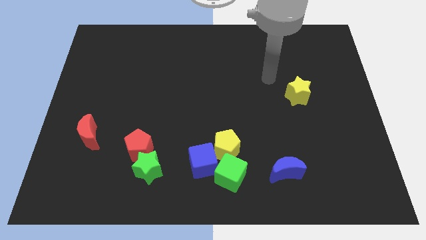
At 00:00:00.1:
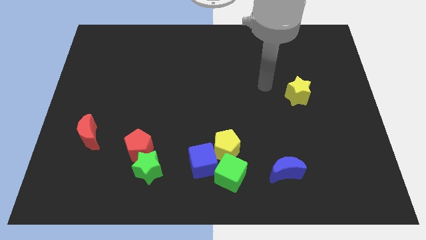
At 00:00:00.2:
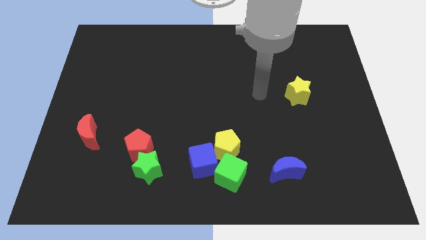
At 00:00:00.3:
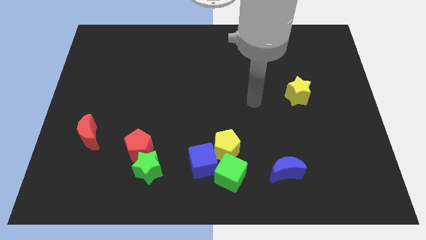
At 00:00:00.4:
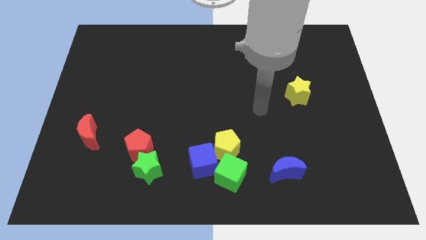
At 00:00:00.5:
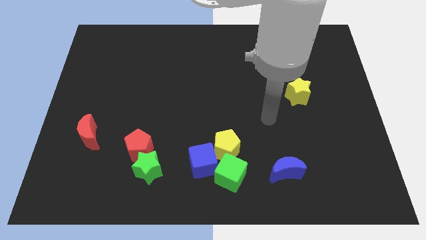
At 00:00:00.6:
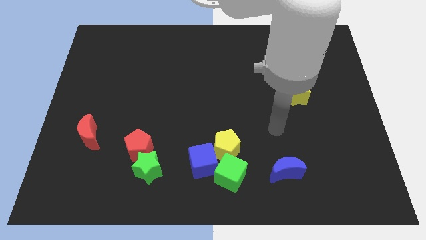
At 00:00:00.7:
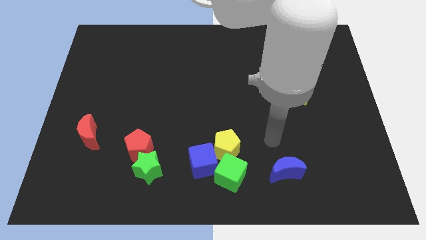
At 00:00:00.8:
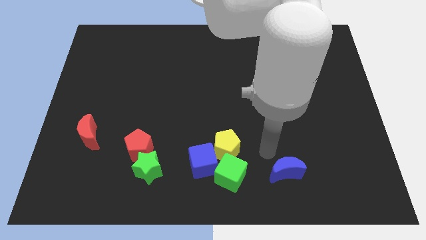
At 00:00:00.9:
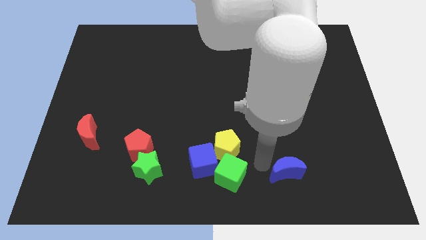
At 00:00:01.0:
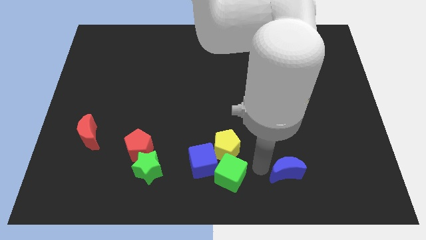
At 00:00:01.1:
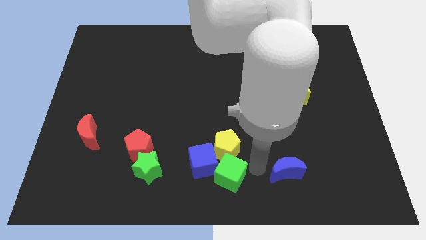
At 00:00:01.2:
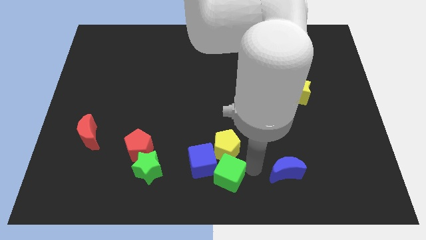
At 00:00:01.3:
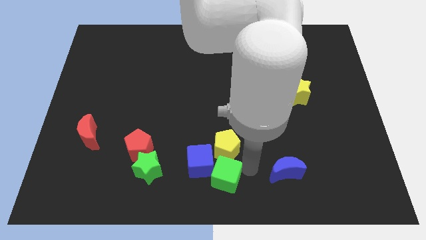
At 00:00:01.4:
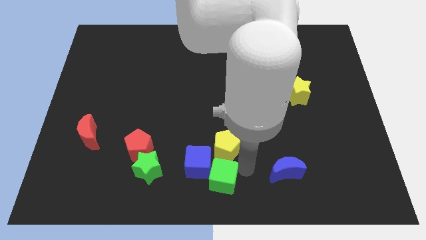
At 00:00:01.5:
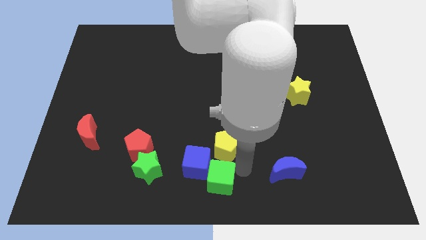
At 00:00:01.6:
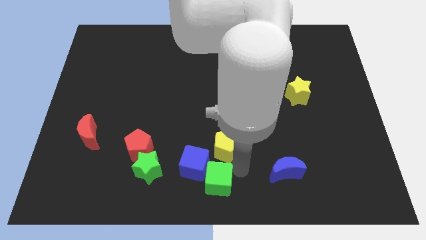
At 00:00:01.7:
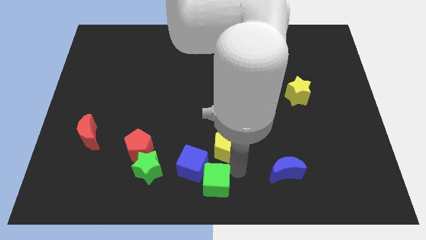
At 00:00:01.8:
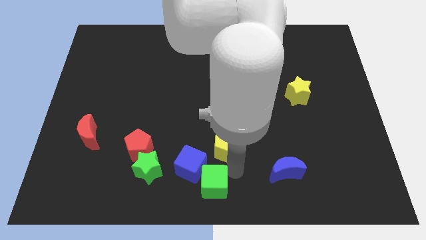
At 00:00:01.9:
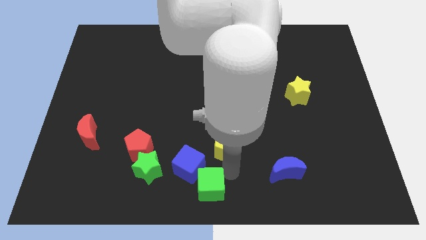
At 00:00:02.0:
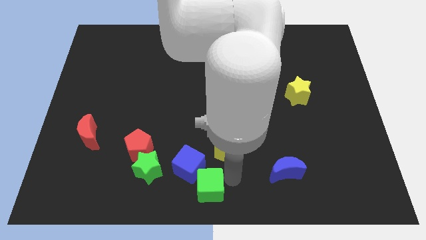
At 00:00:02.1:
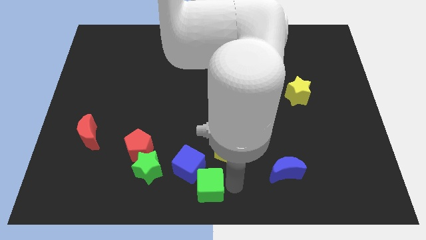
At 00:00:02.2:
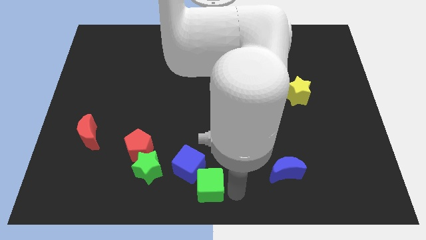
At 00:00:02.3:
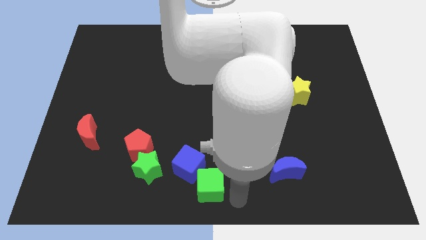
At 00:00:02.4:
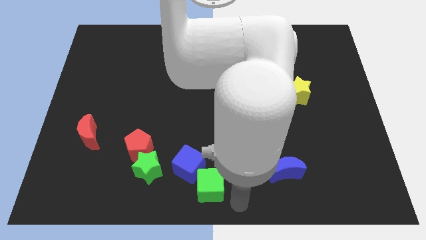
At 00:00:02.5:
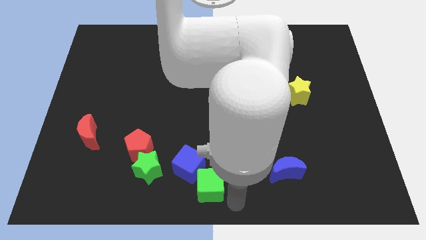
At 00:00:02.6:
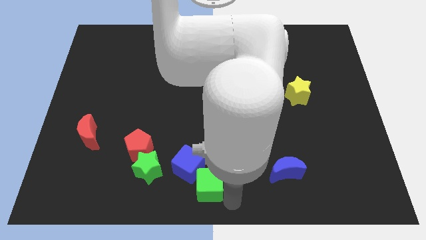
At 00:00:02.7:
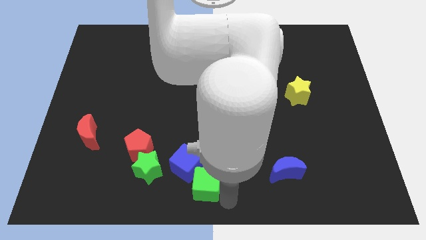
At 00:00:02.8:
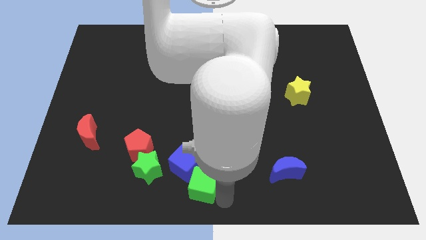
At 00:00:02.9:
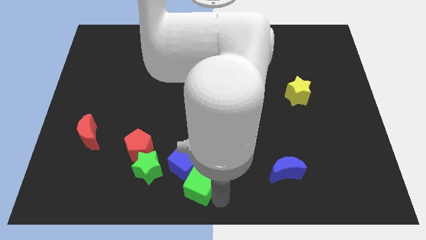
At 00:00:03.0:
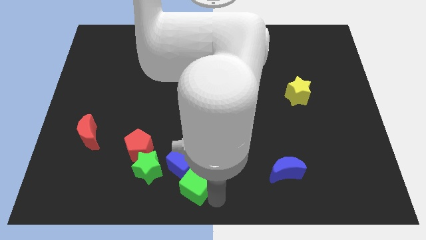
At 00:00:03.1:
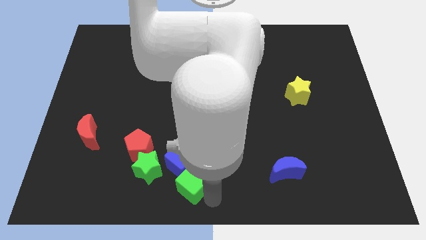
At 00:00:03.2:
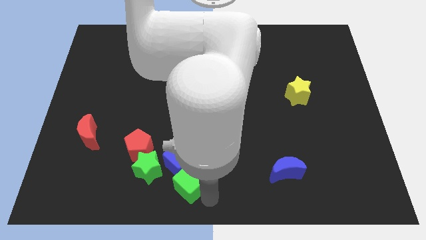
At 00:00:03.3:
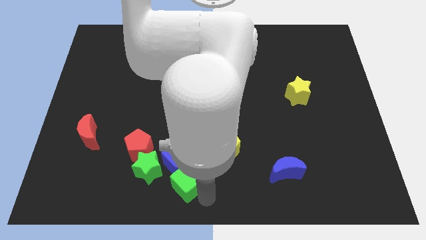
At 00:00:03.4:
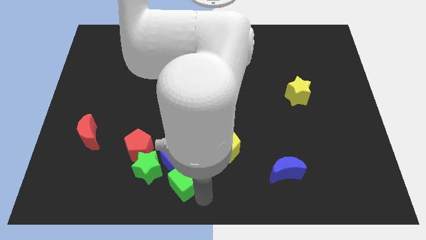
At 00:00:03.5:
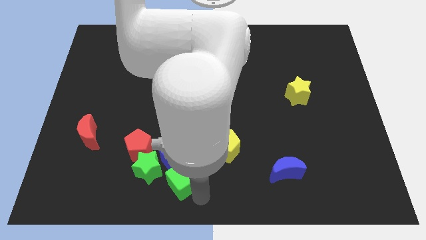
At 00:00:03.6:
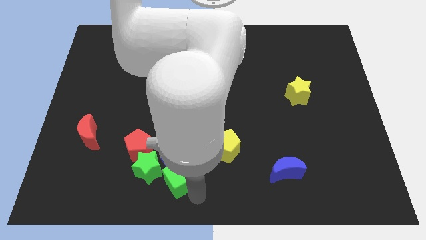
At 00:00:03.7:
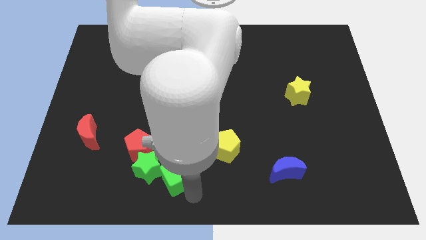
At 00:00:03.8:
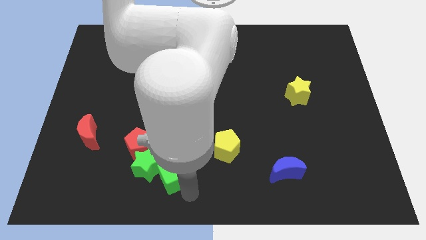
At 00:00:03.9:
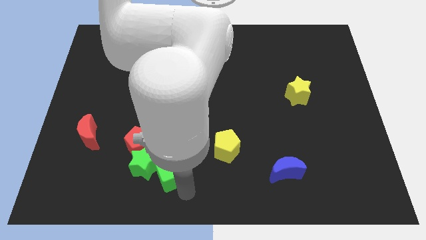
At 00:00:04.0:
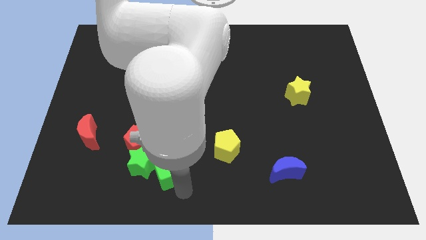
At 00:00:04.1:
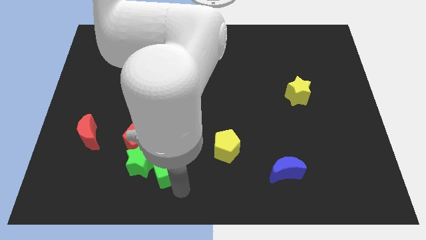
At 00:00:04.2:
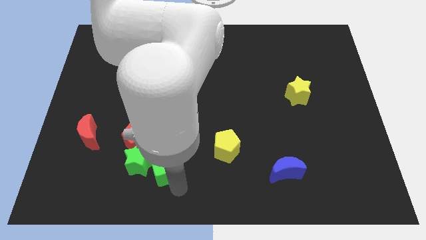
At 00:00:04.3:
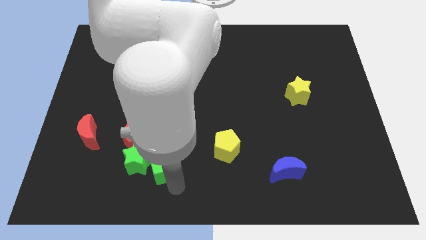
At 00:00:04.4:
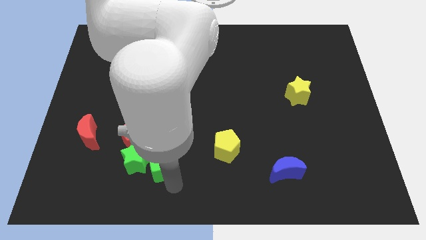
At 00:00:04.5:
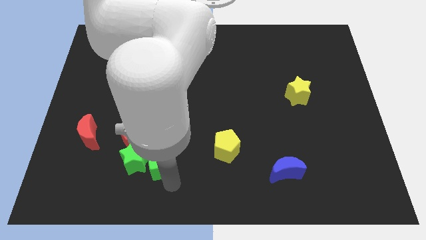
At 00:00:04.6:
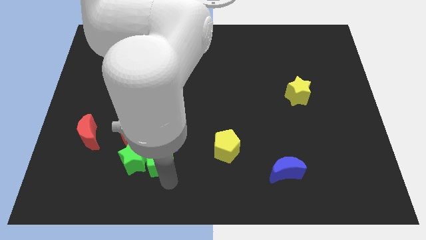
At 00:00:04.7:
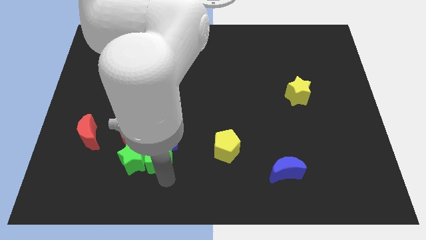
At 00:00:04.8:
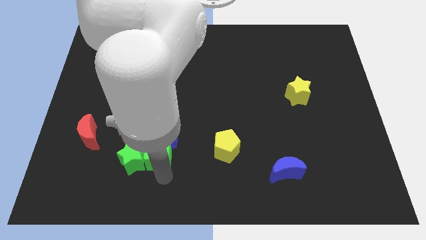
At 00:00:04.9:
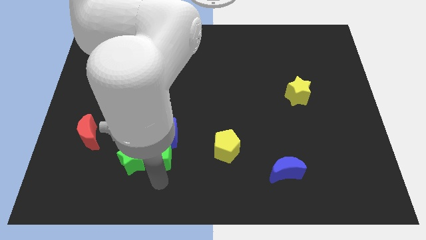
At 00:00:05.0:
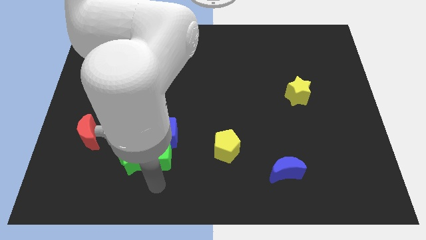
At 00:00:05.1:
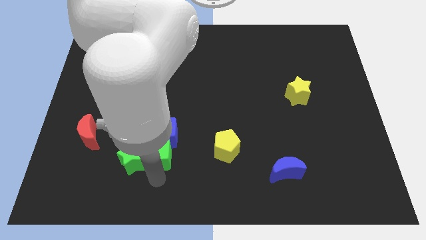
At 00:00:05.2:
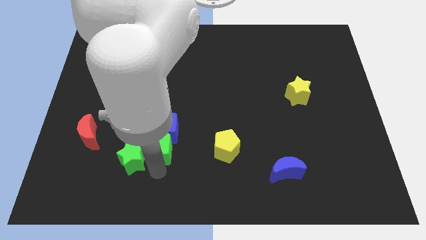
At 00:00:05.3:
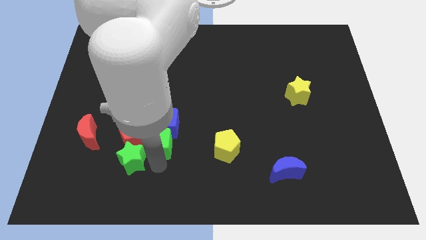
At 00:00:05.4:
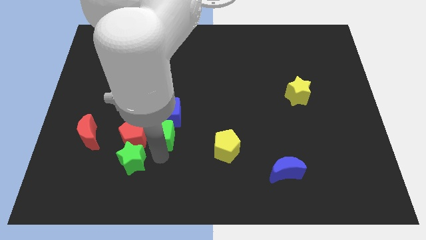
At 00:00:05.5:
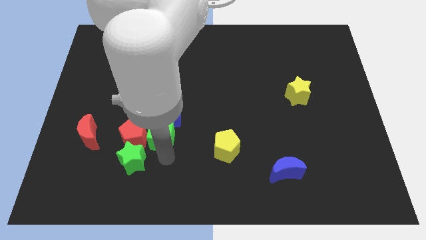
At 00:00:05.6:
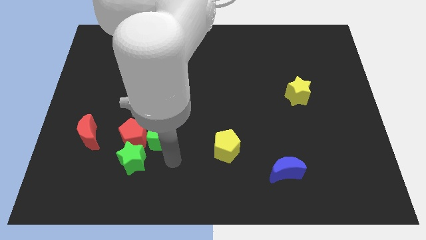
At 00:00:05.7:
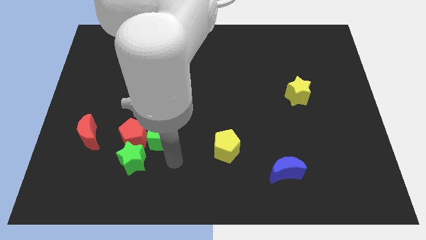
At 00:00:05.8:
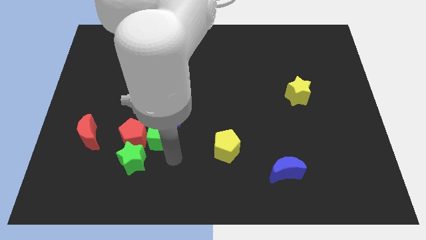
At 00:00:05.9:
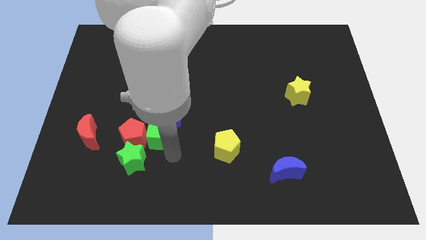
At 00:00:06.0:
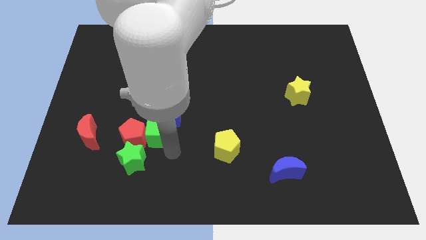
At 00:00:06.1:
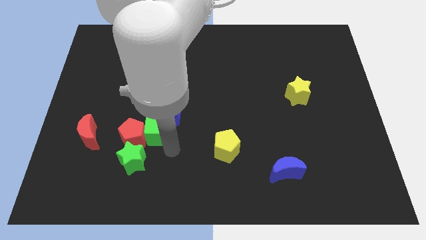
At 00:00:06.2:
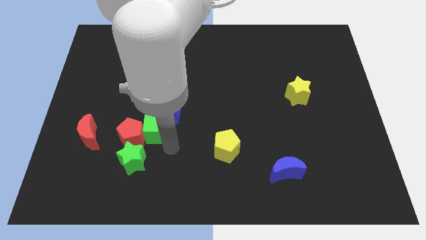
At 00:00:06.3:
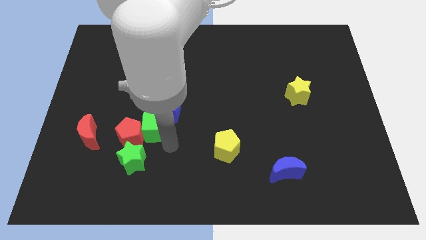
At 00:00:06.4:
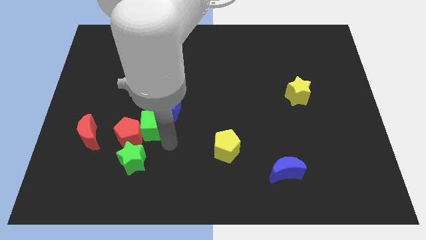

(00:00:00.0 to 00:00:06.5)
slide the green cube diagonally upwards and left

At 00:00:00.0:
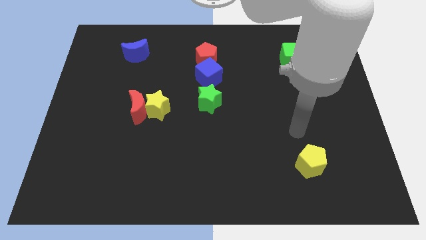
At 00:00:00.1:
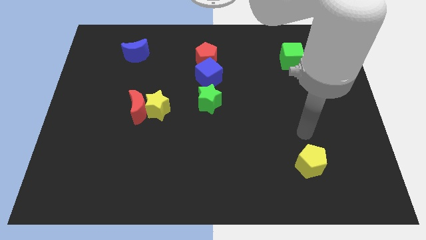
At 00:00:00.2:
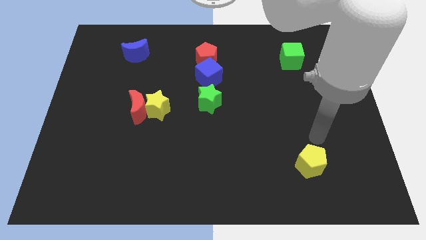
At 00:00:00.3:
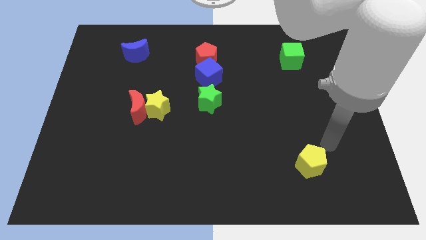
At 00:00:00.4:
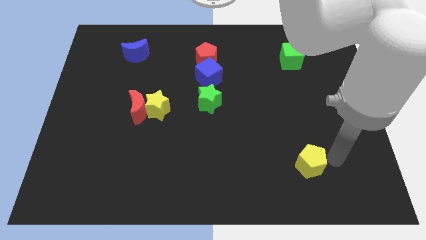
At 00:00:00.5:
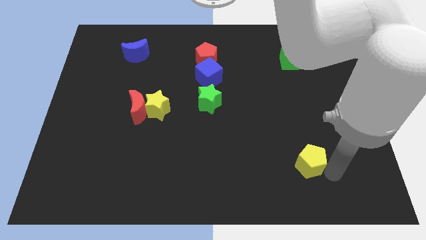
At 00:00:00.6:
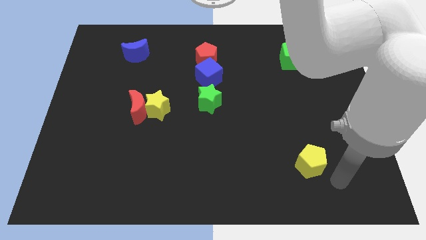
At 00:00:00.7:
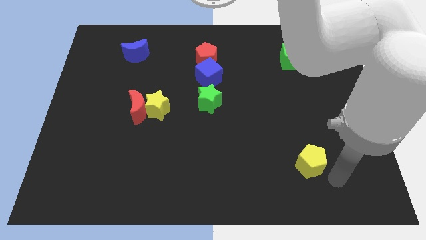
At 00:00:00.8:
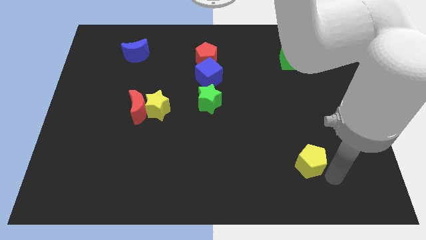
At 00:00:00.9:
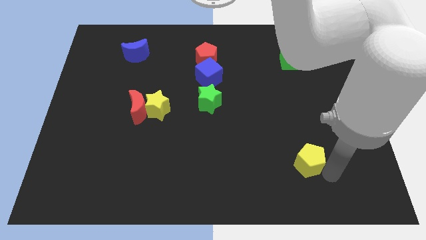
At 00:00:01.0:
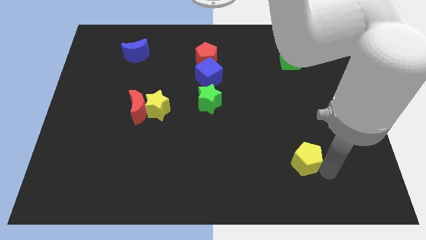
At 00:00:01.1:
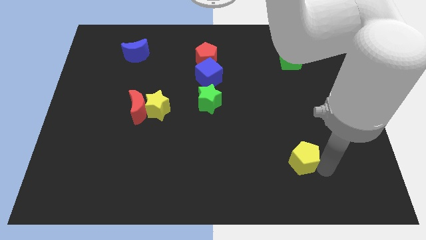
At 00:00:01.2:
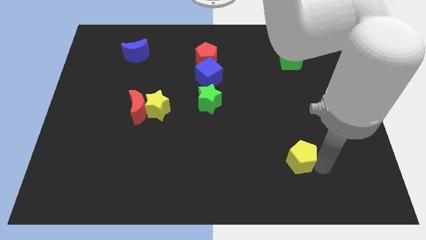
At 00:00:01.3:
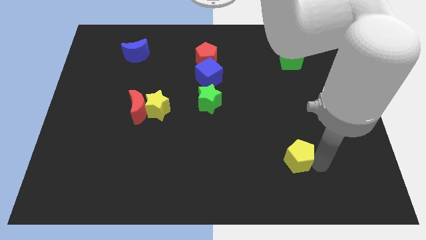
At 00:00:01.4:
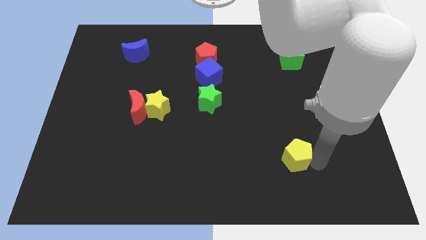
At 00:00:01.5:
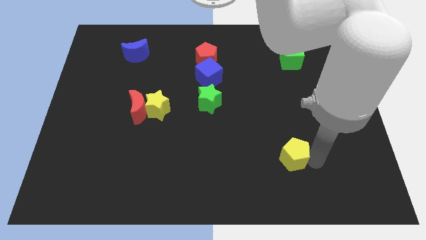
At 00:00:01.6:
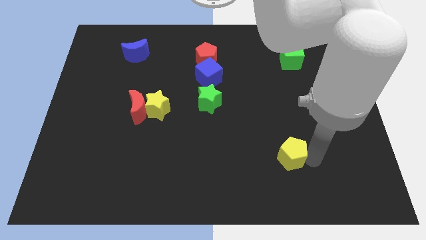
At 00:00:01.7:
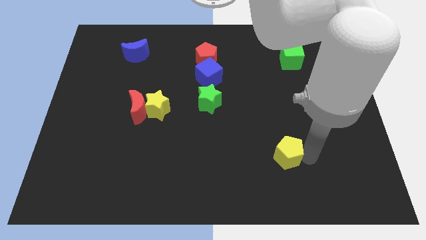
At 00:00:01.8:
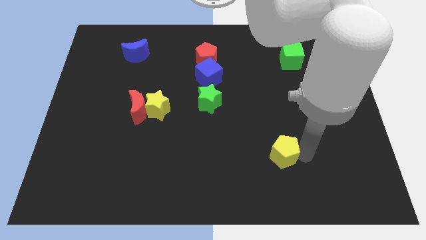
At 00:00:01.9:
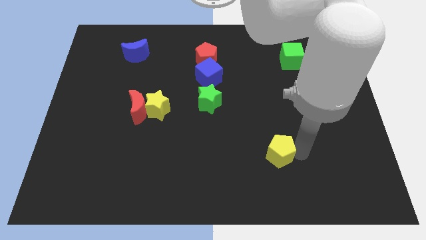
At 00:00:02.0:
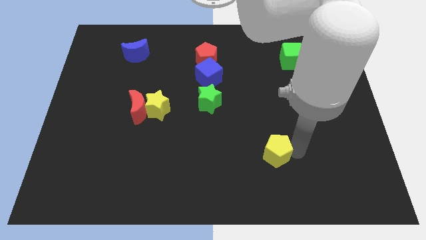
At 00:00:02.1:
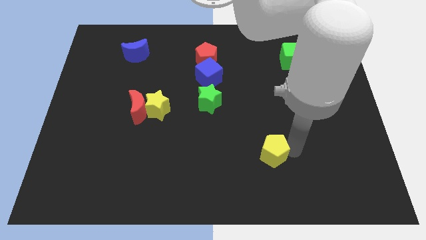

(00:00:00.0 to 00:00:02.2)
slightly push the yellow pentagon diagonally up and to the left
